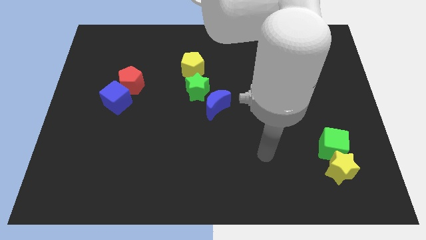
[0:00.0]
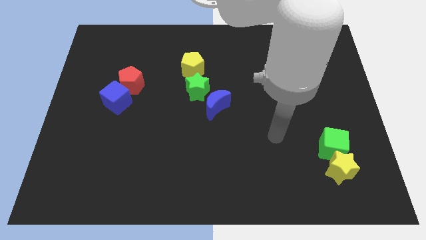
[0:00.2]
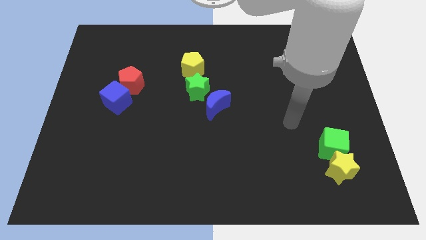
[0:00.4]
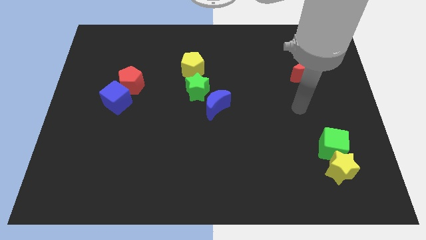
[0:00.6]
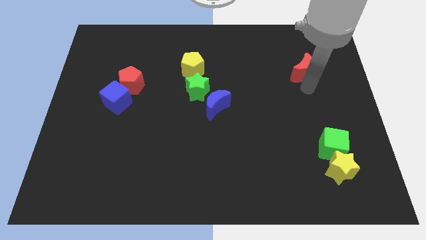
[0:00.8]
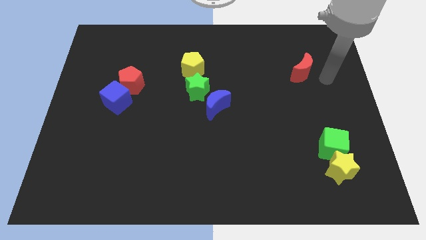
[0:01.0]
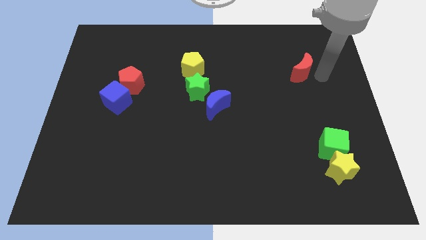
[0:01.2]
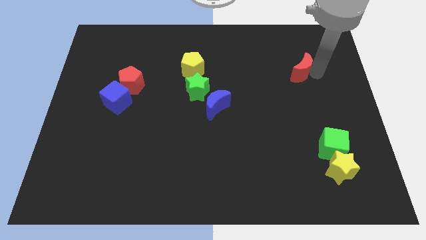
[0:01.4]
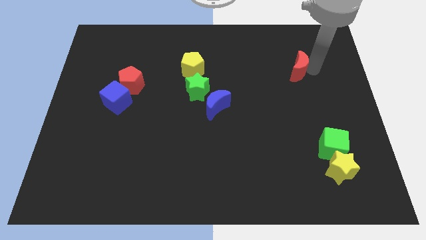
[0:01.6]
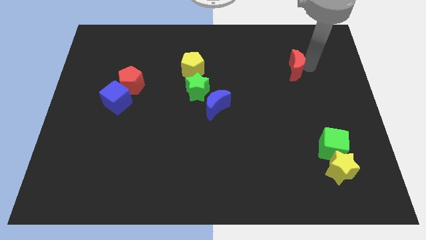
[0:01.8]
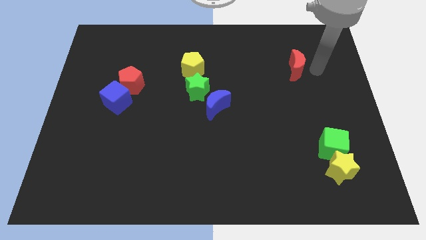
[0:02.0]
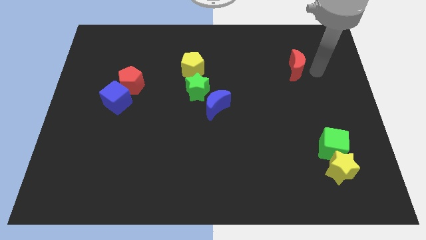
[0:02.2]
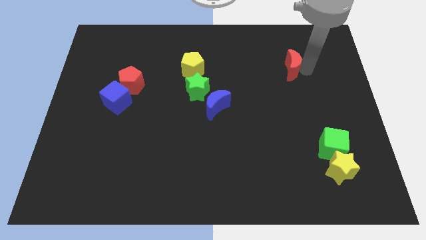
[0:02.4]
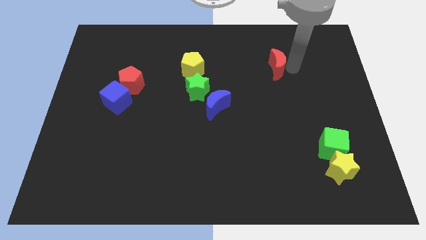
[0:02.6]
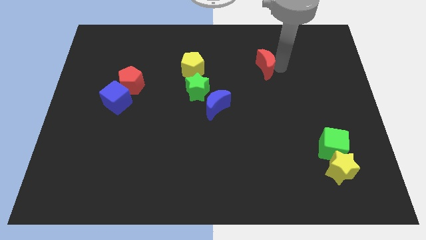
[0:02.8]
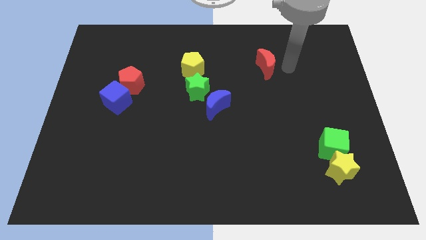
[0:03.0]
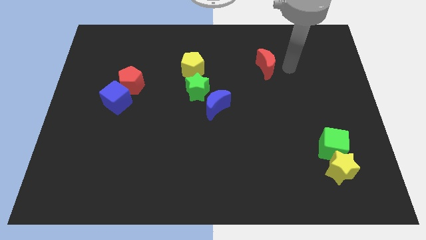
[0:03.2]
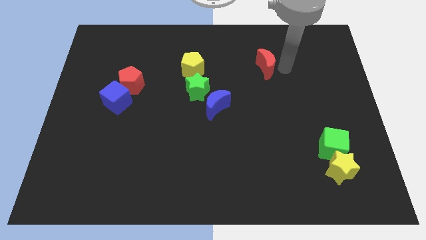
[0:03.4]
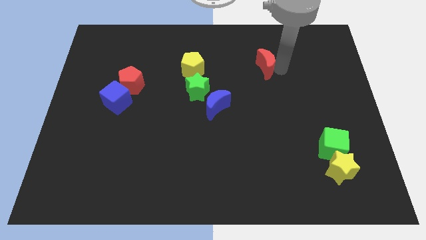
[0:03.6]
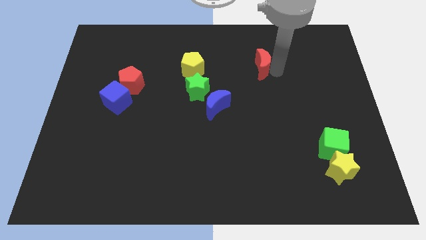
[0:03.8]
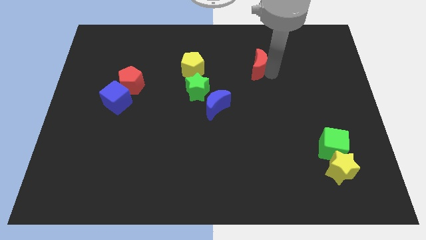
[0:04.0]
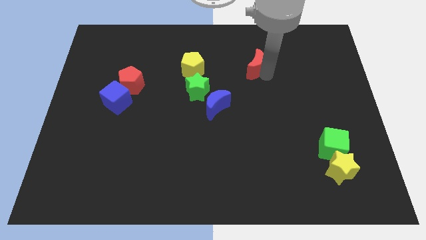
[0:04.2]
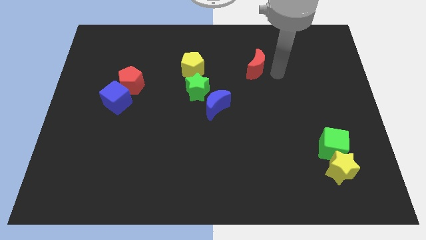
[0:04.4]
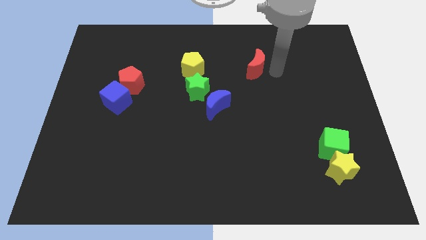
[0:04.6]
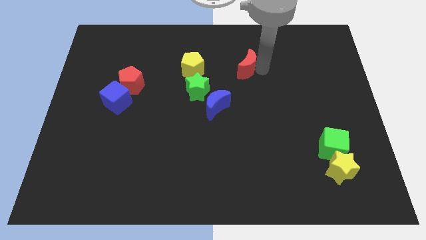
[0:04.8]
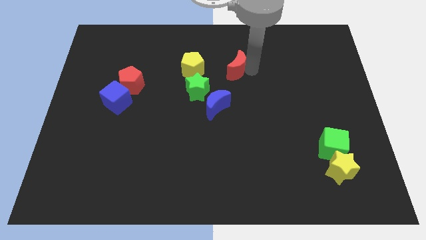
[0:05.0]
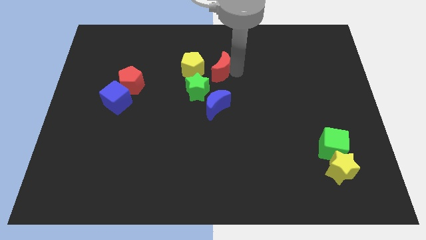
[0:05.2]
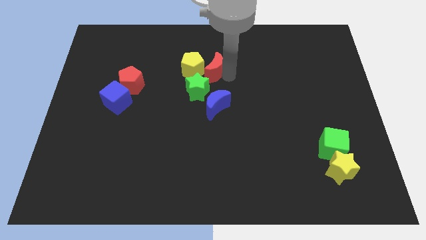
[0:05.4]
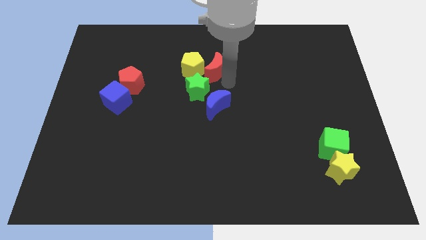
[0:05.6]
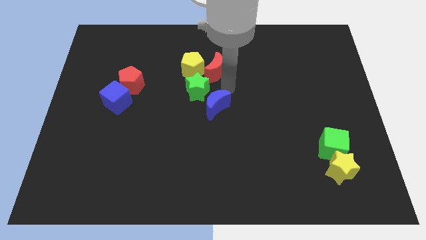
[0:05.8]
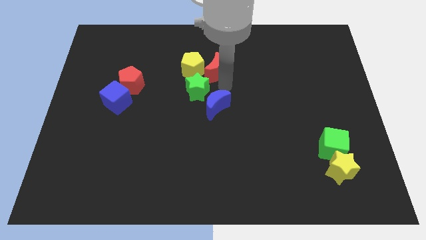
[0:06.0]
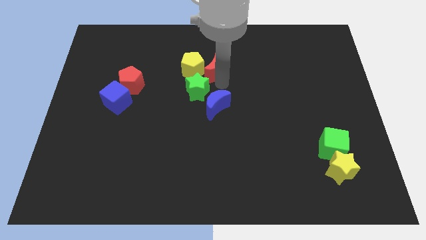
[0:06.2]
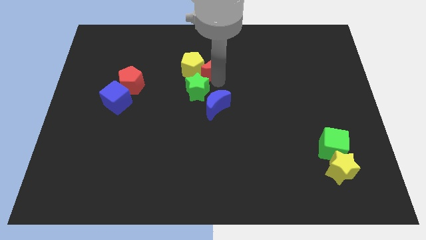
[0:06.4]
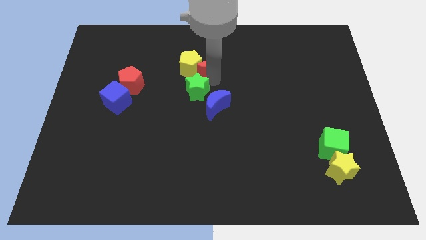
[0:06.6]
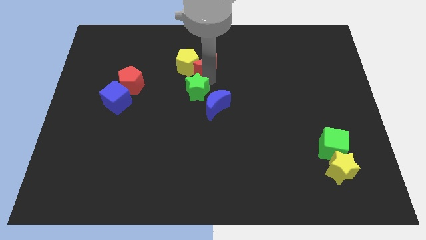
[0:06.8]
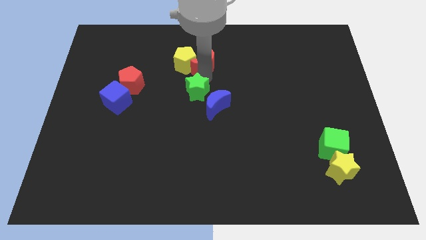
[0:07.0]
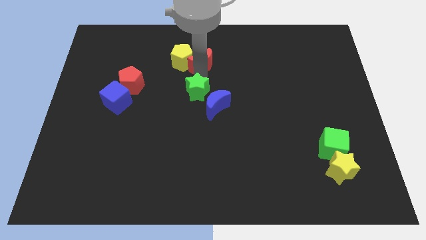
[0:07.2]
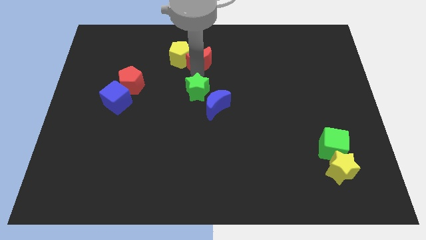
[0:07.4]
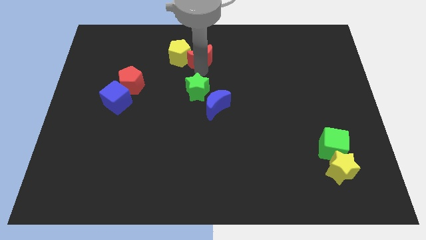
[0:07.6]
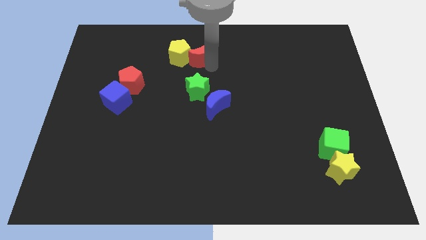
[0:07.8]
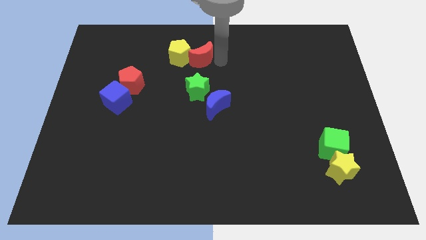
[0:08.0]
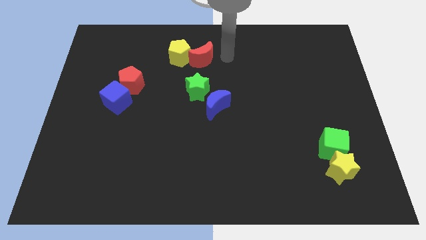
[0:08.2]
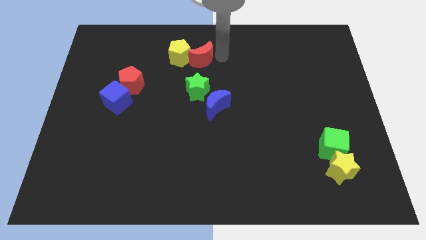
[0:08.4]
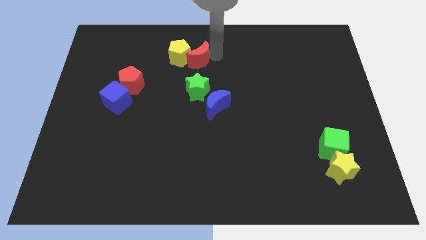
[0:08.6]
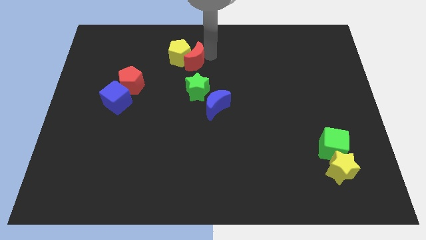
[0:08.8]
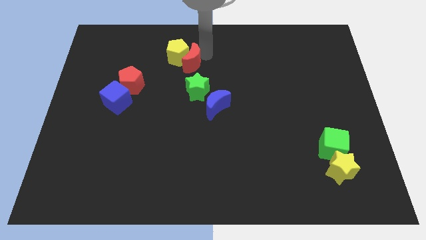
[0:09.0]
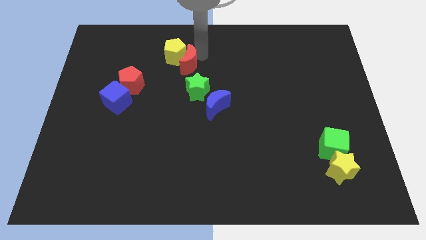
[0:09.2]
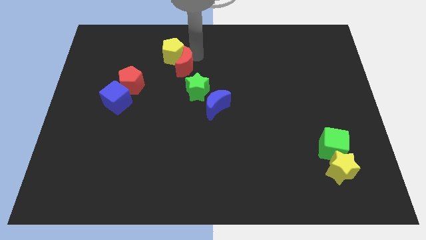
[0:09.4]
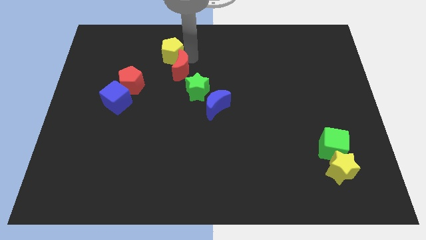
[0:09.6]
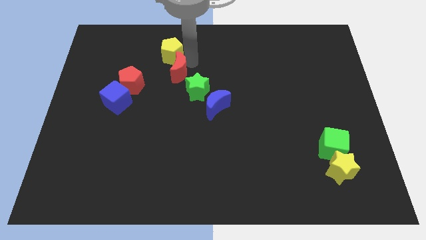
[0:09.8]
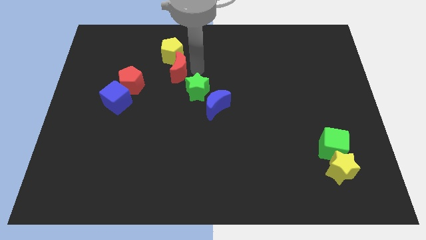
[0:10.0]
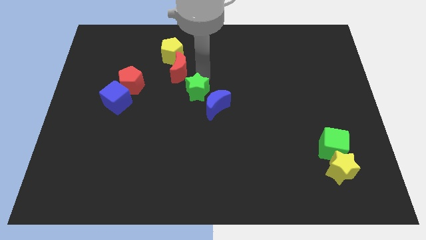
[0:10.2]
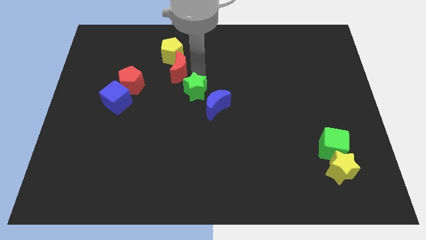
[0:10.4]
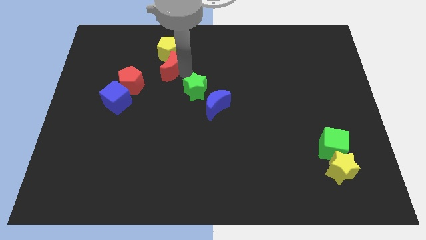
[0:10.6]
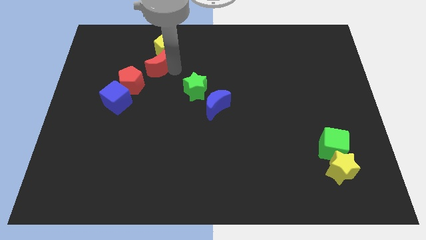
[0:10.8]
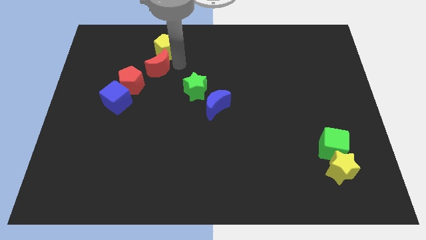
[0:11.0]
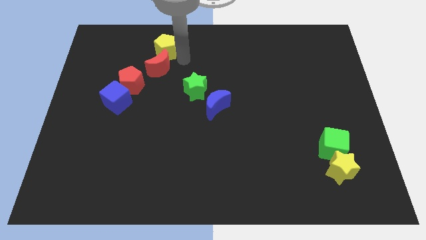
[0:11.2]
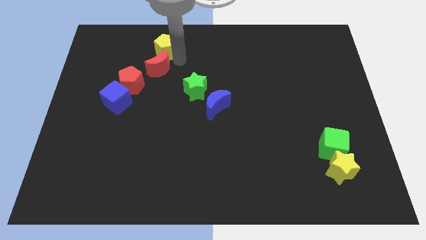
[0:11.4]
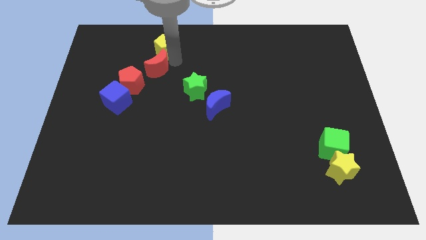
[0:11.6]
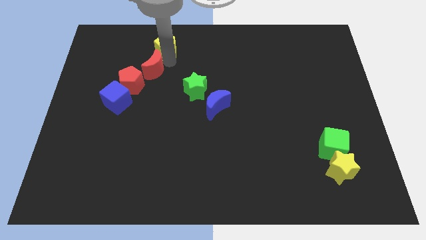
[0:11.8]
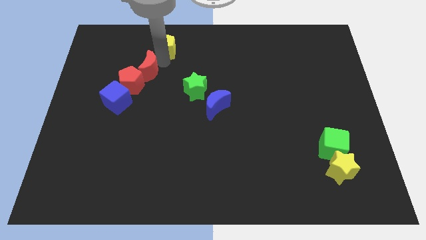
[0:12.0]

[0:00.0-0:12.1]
slide the red moon towards the red pentagon

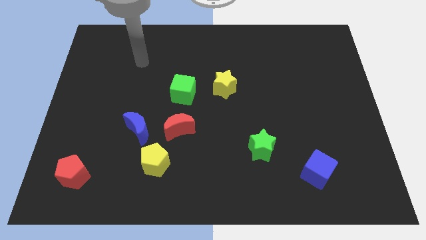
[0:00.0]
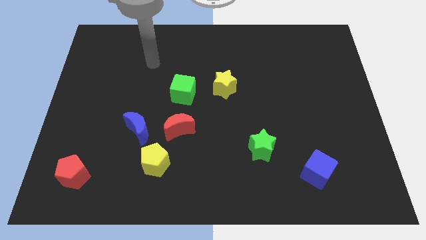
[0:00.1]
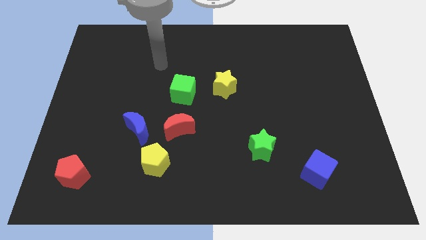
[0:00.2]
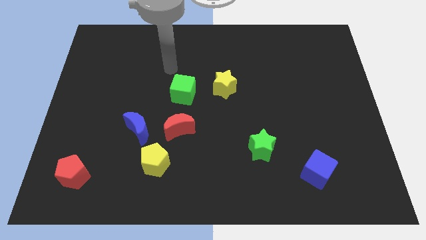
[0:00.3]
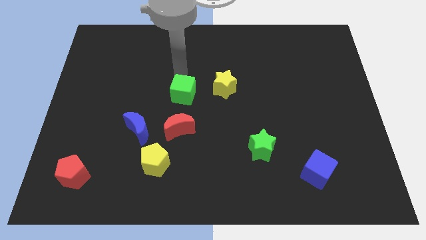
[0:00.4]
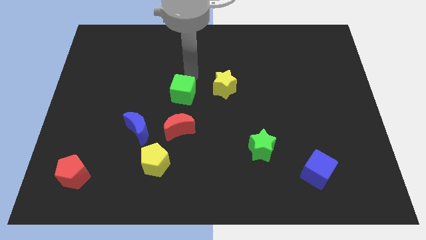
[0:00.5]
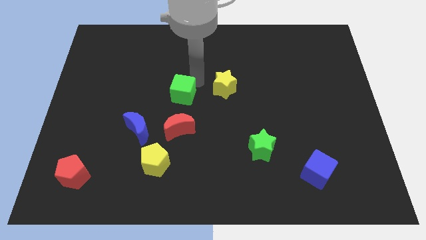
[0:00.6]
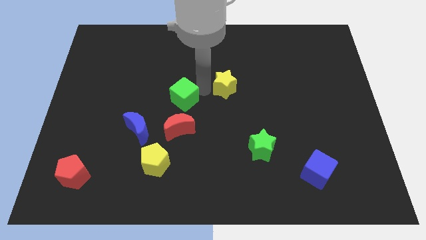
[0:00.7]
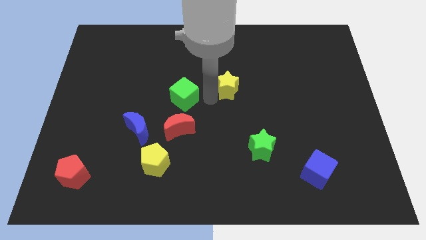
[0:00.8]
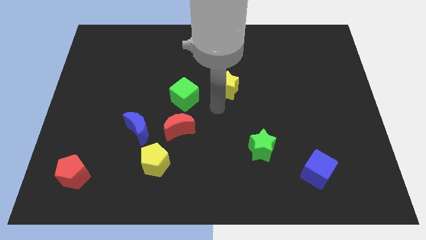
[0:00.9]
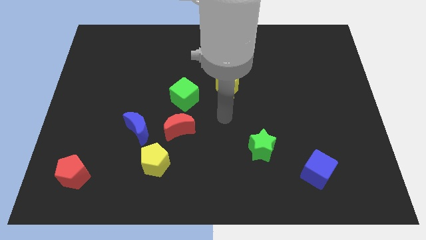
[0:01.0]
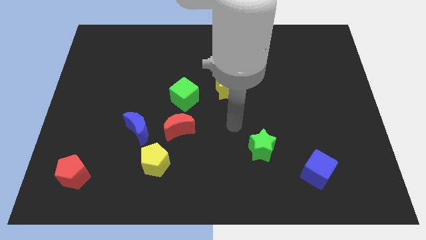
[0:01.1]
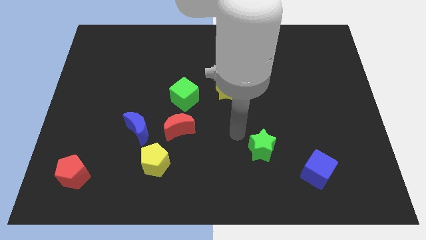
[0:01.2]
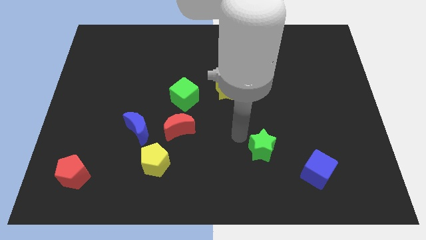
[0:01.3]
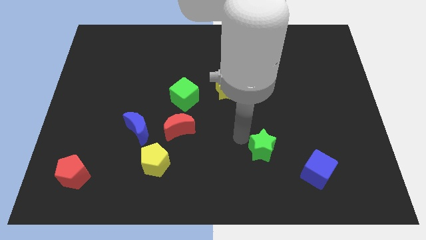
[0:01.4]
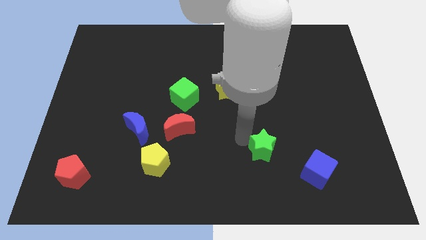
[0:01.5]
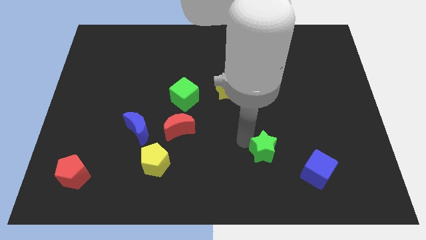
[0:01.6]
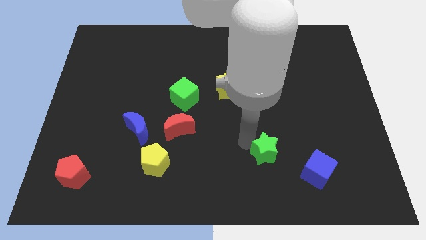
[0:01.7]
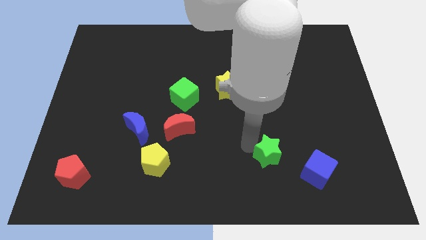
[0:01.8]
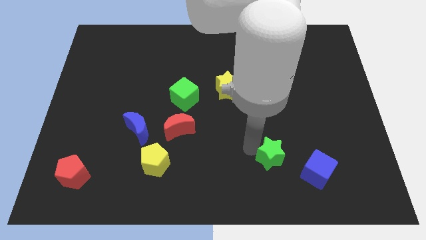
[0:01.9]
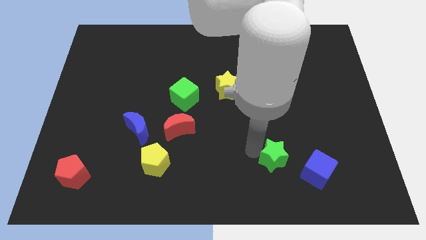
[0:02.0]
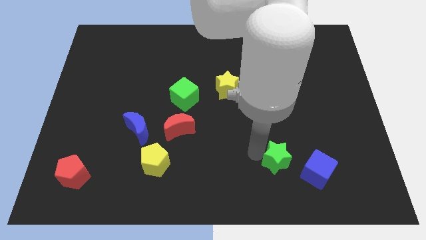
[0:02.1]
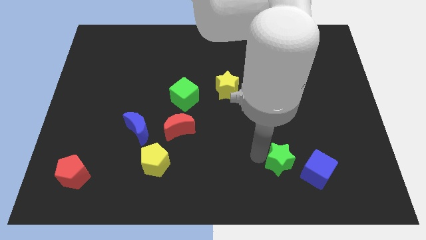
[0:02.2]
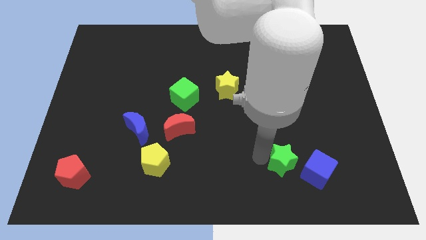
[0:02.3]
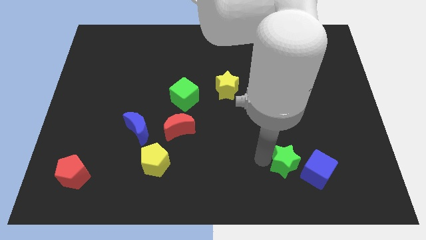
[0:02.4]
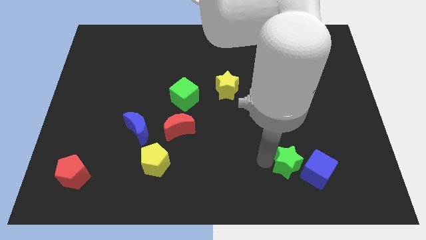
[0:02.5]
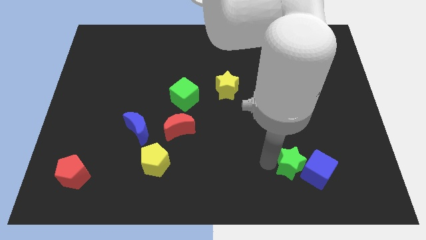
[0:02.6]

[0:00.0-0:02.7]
put the green star towards the blue cube
